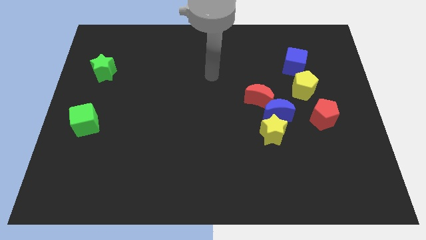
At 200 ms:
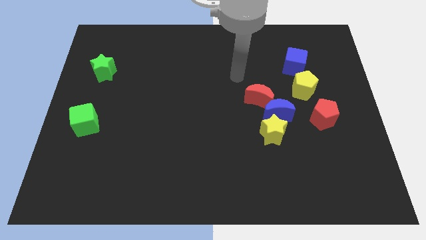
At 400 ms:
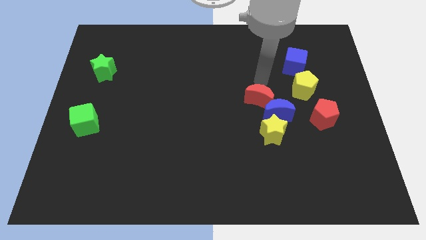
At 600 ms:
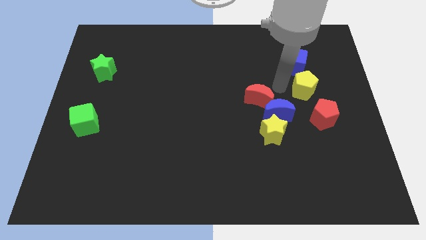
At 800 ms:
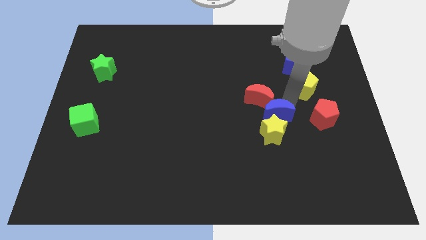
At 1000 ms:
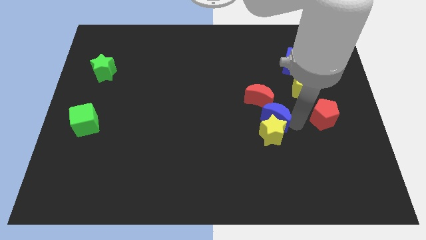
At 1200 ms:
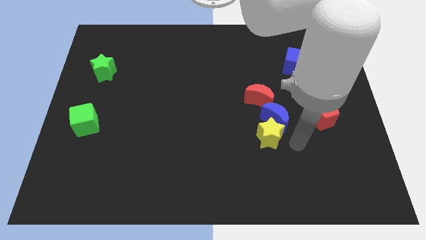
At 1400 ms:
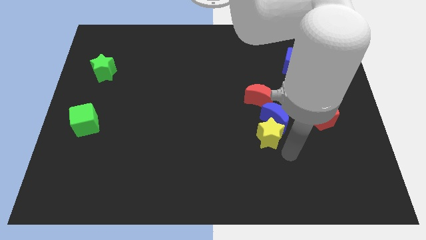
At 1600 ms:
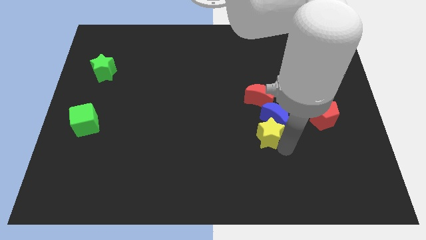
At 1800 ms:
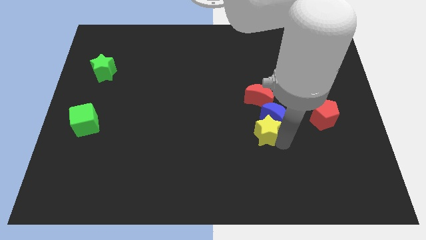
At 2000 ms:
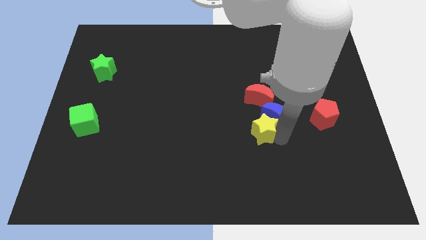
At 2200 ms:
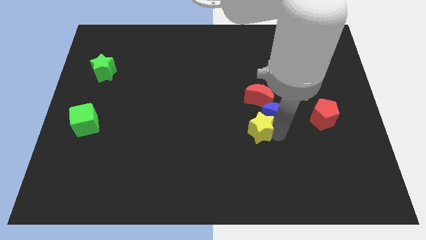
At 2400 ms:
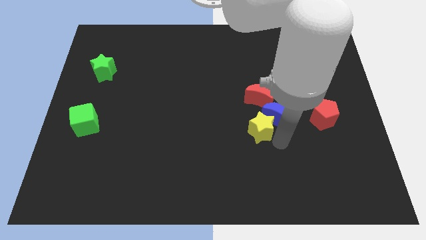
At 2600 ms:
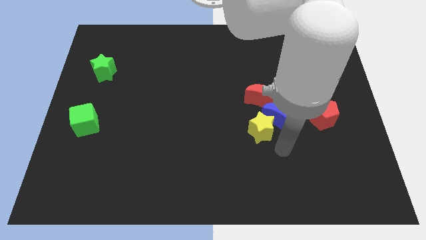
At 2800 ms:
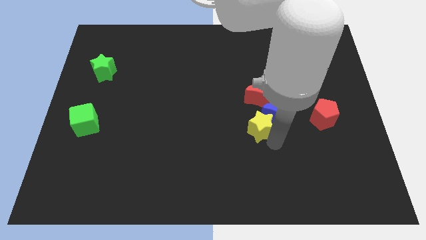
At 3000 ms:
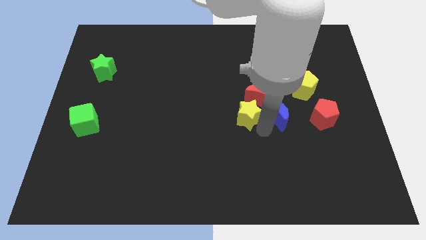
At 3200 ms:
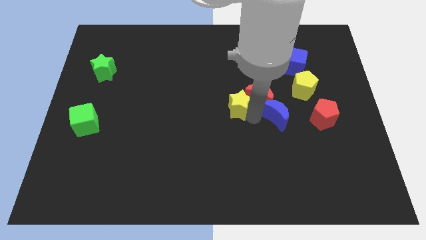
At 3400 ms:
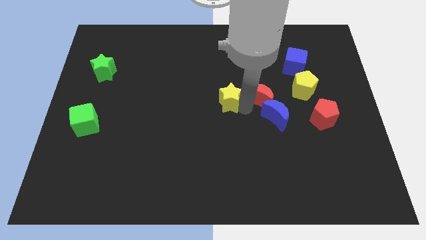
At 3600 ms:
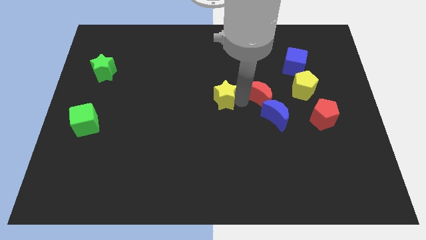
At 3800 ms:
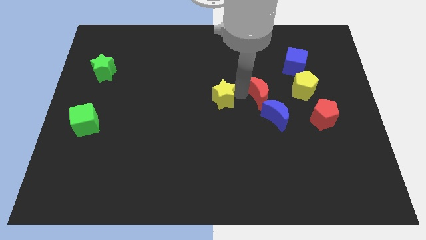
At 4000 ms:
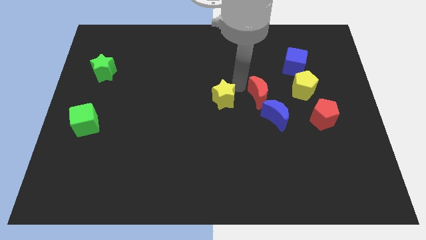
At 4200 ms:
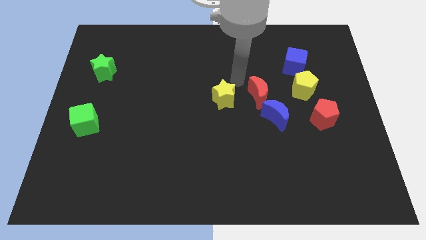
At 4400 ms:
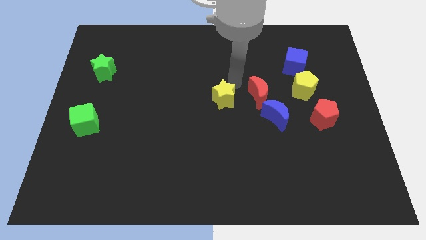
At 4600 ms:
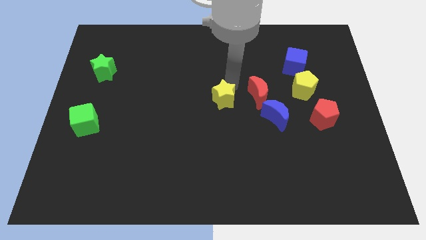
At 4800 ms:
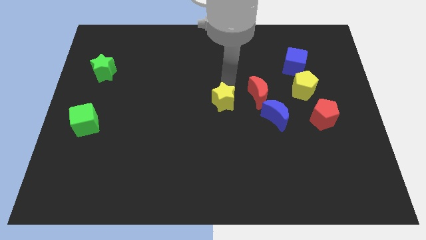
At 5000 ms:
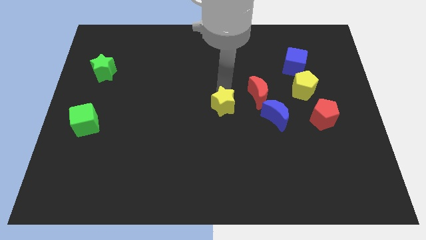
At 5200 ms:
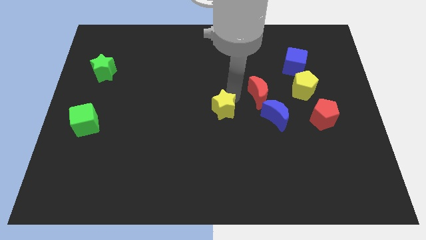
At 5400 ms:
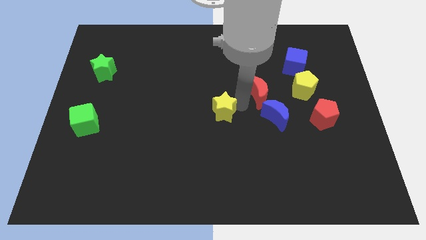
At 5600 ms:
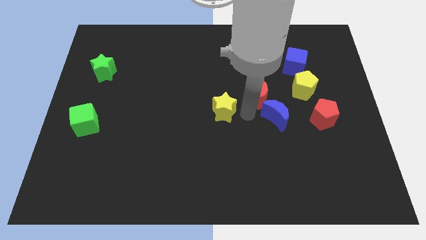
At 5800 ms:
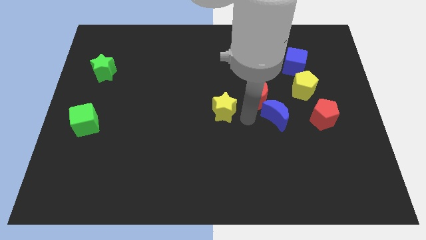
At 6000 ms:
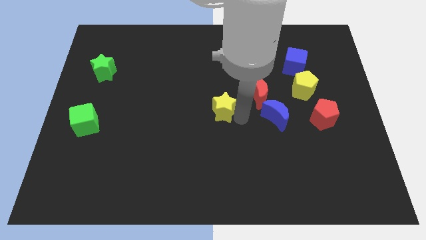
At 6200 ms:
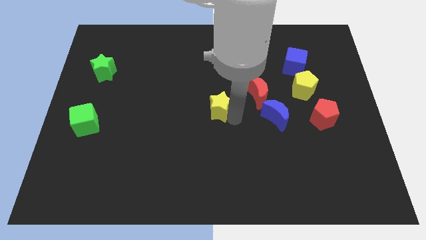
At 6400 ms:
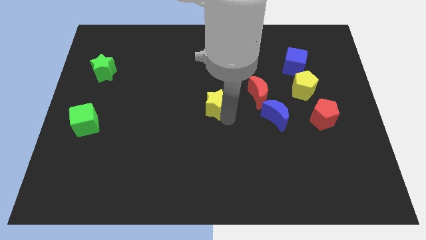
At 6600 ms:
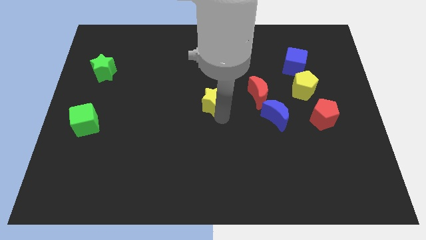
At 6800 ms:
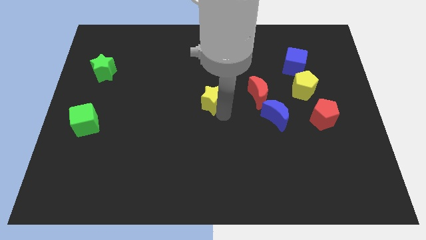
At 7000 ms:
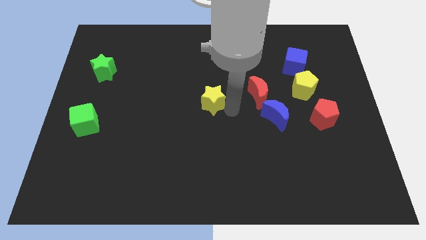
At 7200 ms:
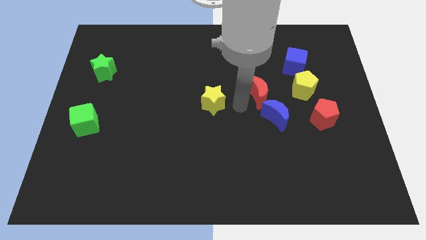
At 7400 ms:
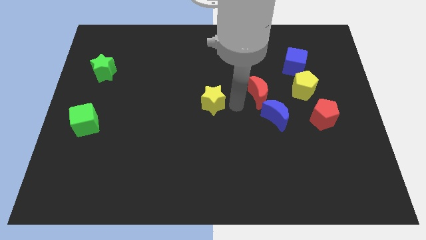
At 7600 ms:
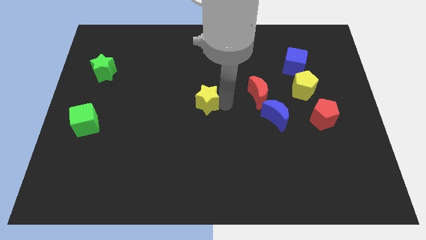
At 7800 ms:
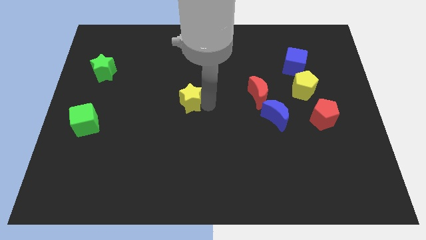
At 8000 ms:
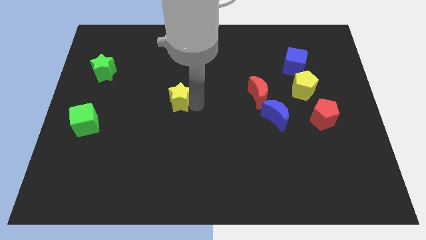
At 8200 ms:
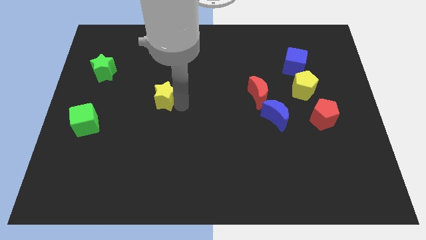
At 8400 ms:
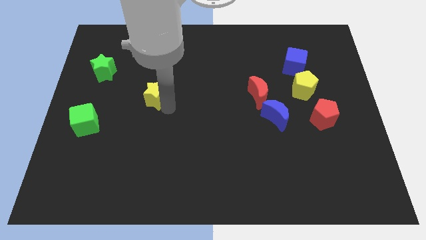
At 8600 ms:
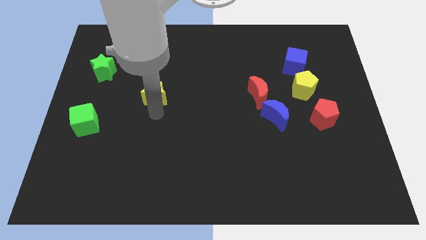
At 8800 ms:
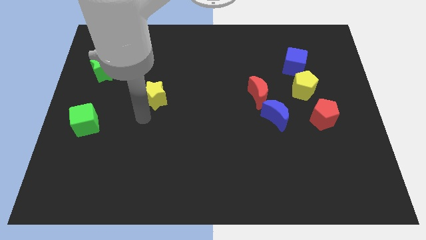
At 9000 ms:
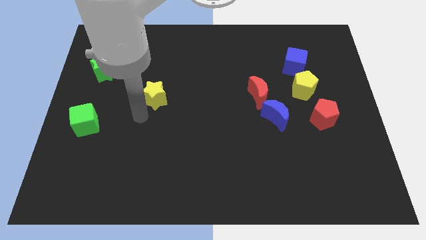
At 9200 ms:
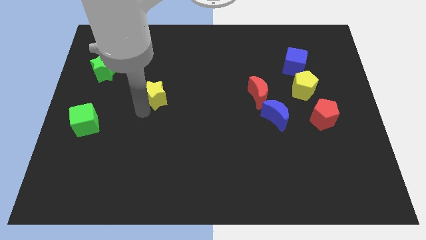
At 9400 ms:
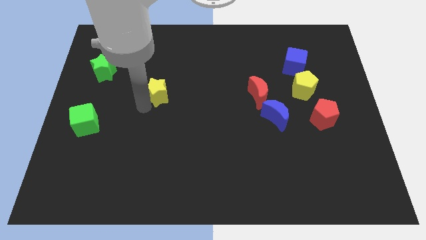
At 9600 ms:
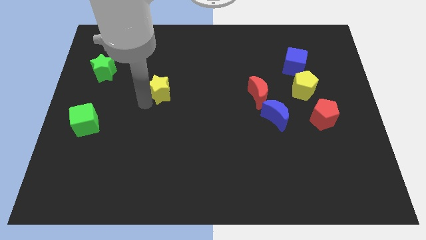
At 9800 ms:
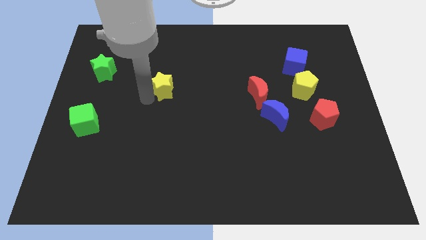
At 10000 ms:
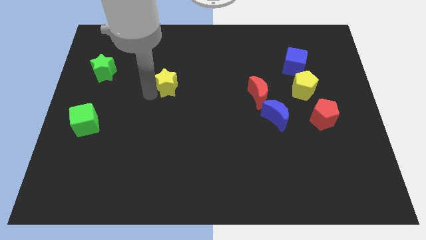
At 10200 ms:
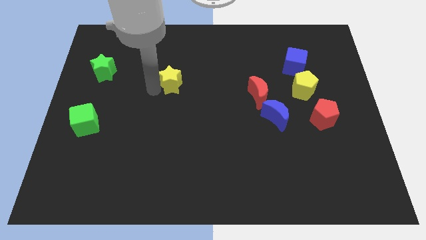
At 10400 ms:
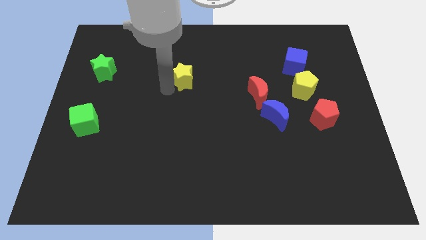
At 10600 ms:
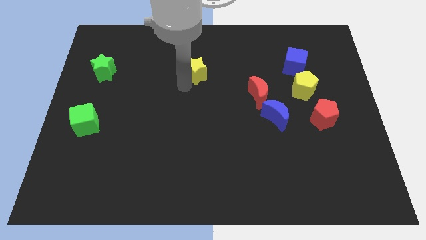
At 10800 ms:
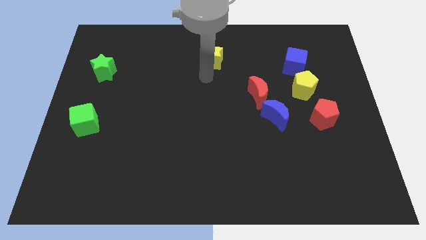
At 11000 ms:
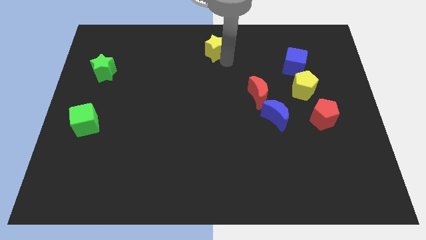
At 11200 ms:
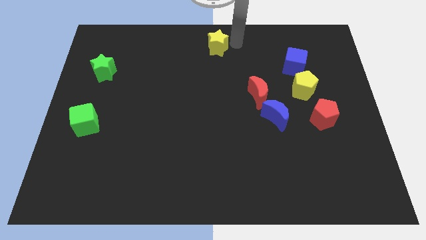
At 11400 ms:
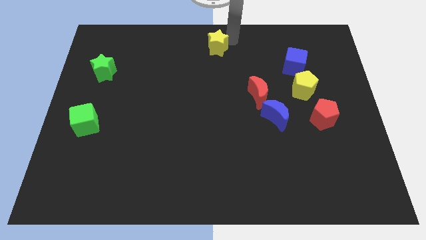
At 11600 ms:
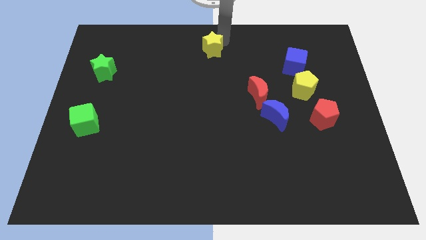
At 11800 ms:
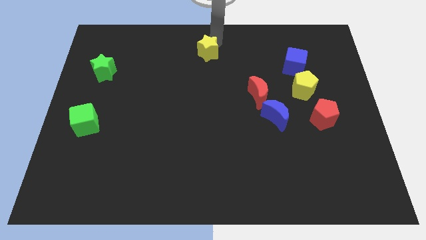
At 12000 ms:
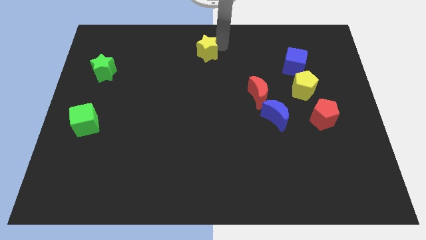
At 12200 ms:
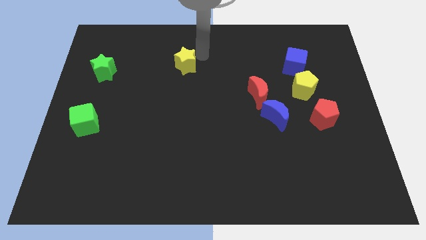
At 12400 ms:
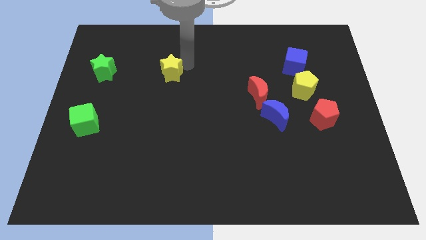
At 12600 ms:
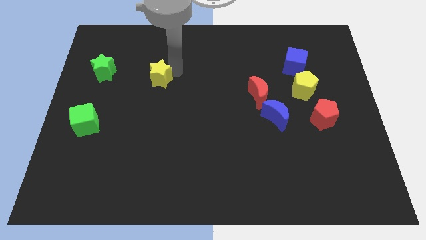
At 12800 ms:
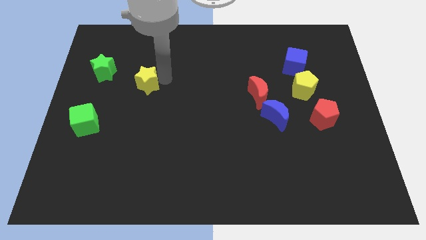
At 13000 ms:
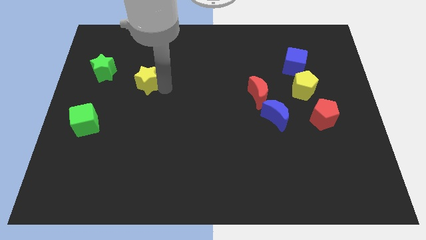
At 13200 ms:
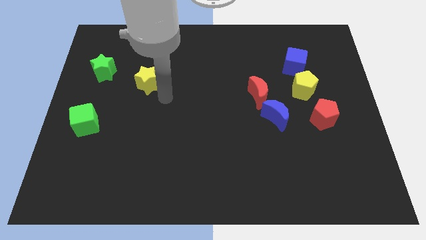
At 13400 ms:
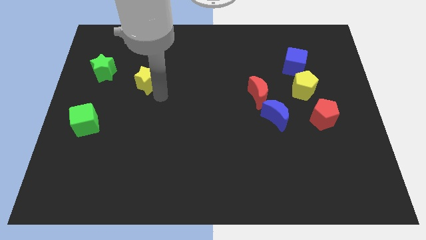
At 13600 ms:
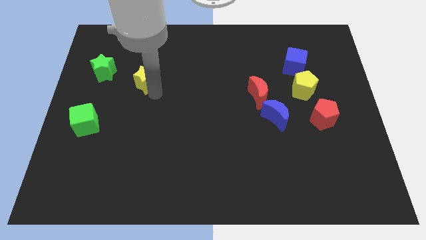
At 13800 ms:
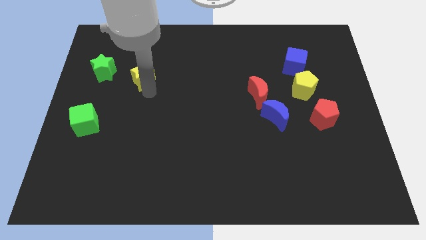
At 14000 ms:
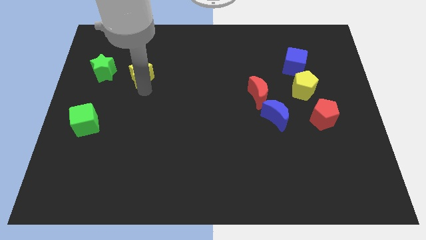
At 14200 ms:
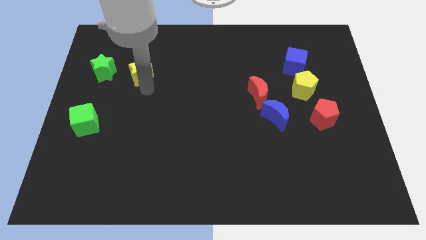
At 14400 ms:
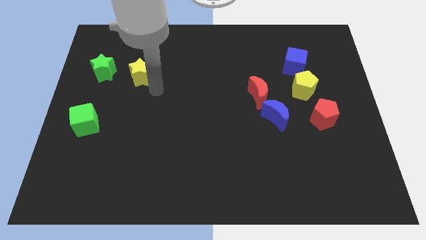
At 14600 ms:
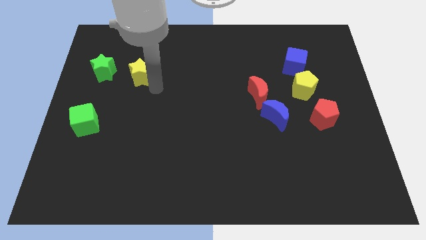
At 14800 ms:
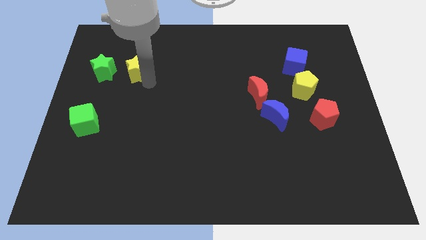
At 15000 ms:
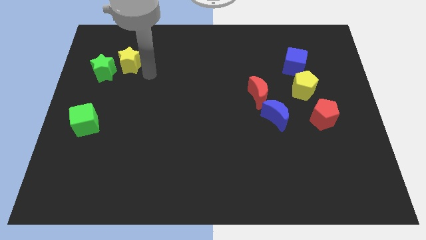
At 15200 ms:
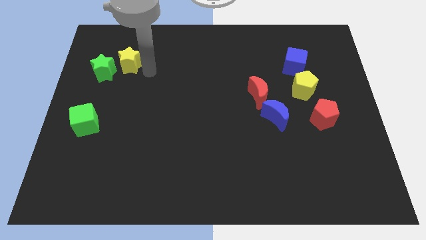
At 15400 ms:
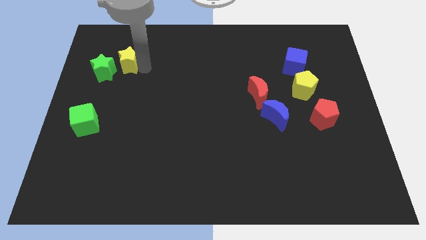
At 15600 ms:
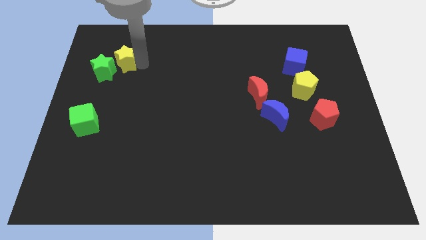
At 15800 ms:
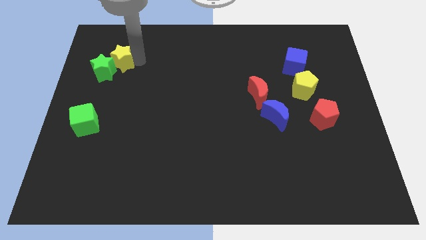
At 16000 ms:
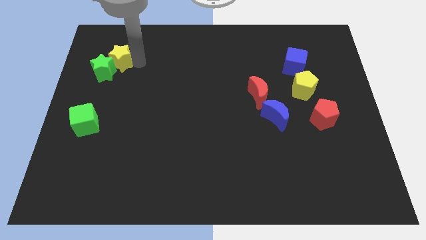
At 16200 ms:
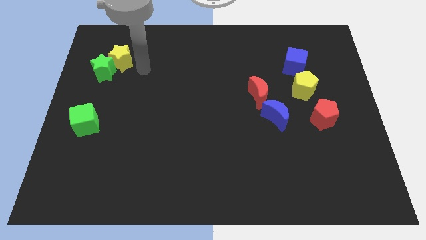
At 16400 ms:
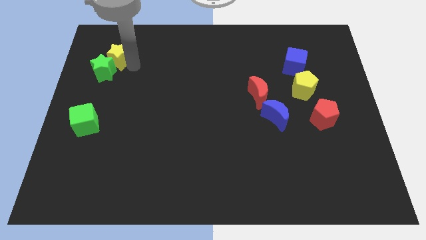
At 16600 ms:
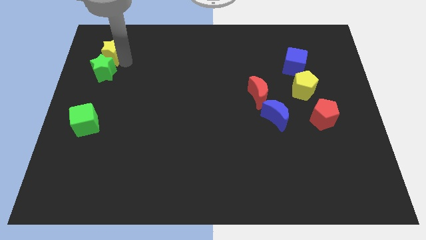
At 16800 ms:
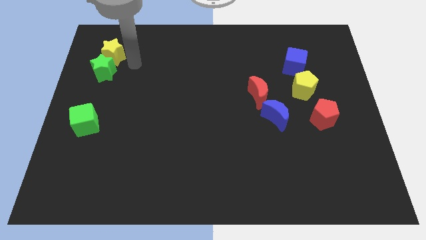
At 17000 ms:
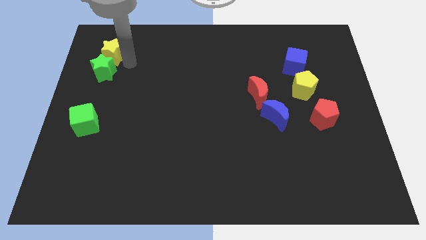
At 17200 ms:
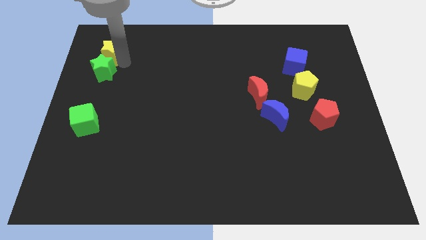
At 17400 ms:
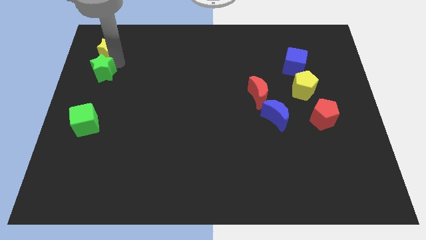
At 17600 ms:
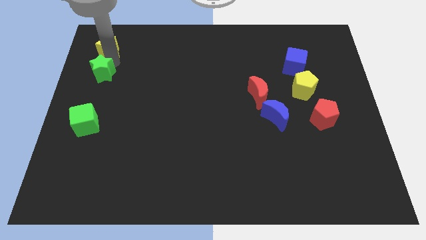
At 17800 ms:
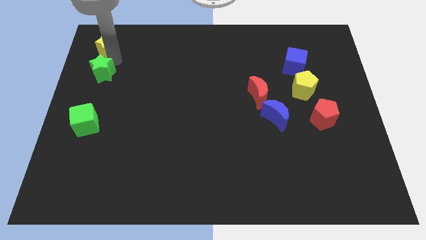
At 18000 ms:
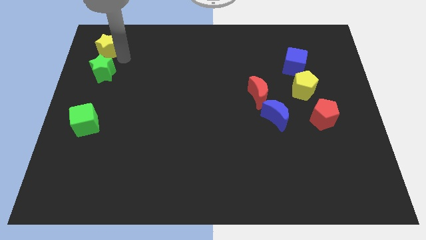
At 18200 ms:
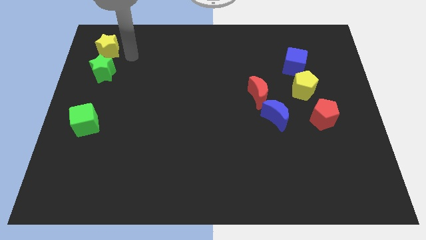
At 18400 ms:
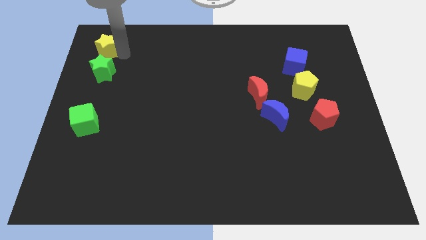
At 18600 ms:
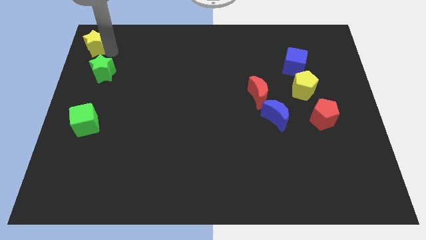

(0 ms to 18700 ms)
push the yellow star to the upper left corner
